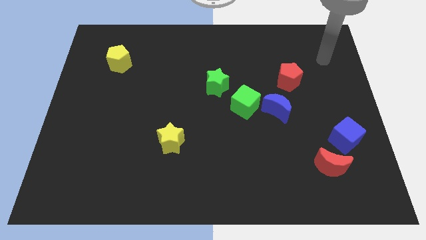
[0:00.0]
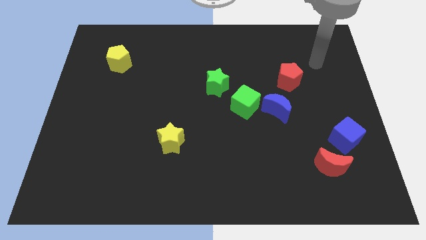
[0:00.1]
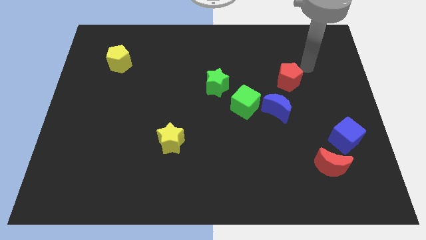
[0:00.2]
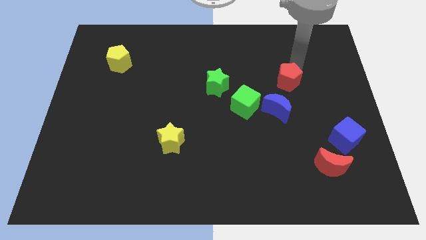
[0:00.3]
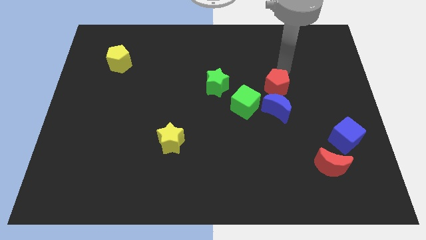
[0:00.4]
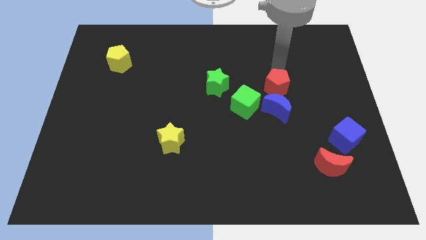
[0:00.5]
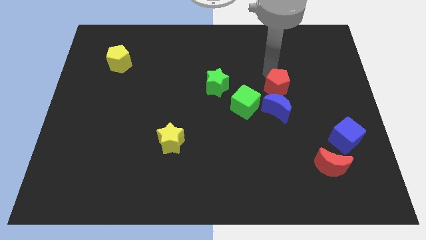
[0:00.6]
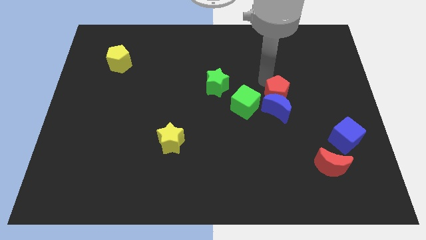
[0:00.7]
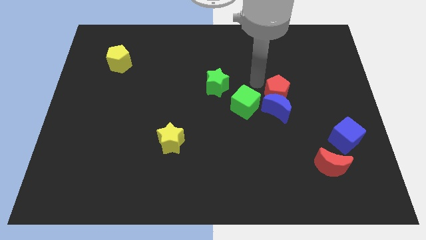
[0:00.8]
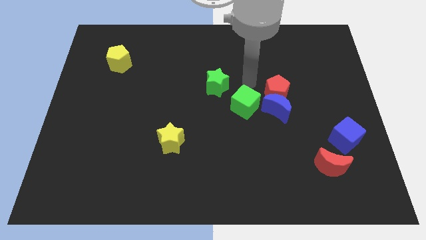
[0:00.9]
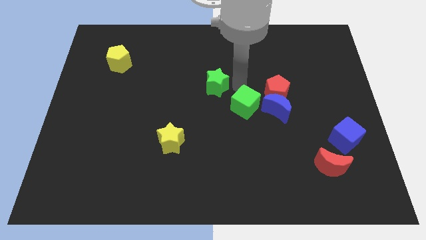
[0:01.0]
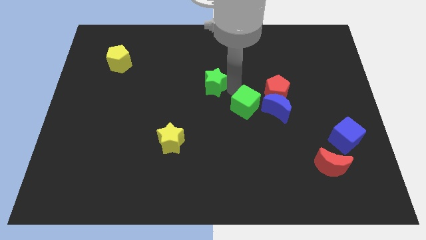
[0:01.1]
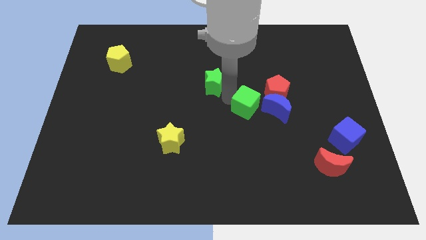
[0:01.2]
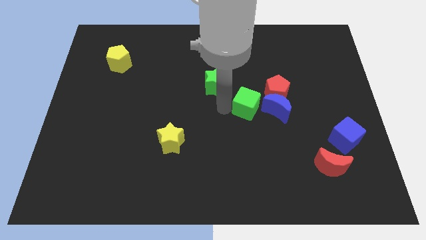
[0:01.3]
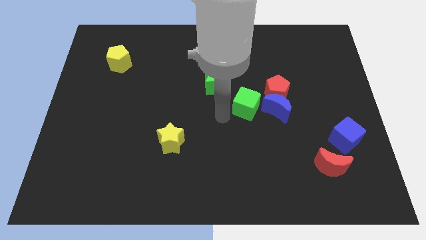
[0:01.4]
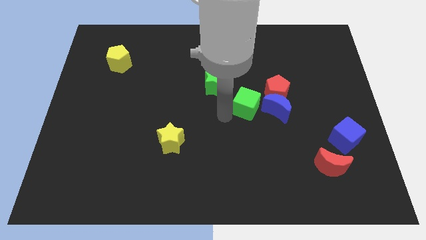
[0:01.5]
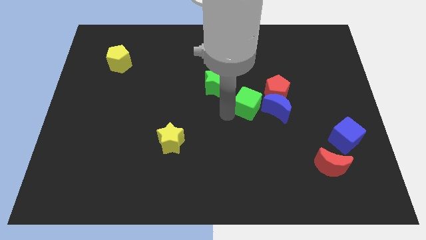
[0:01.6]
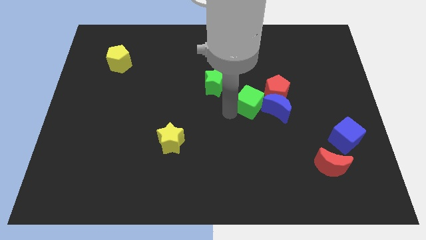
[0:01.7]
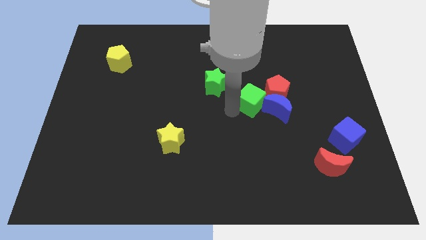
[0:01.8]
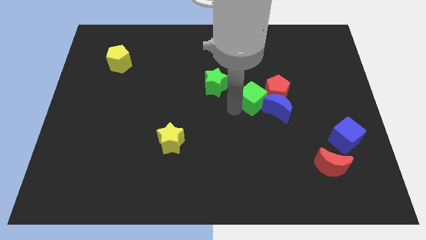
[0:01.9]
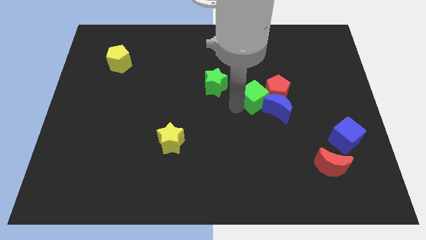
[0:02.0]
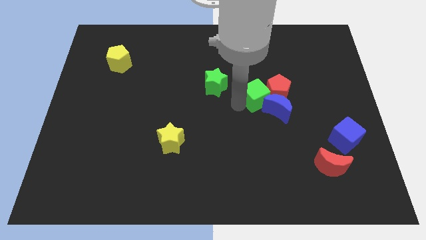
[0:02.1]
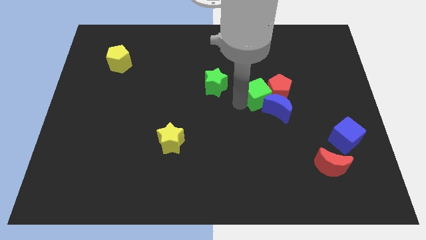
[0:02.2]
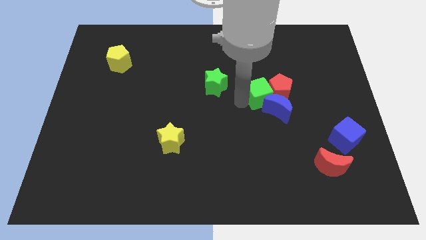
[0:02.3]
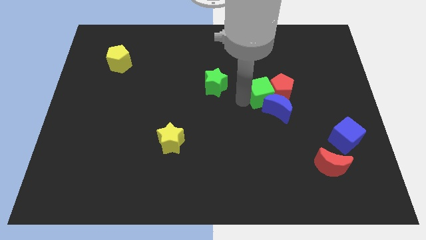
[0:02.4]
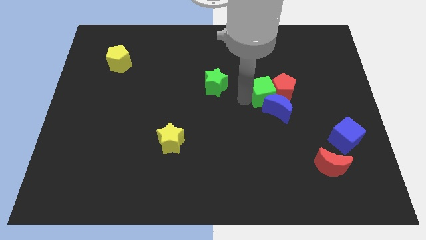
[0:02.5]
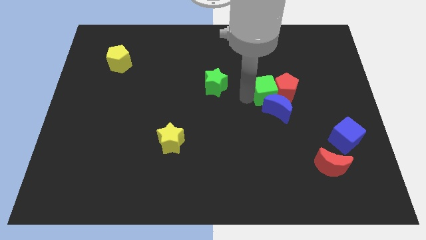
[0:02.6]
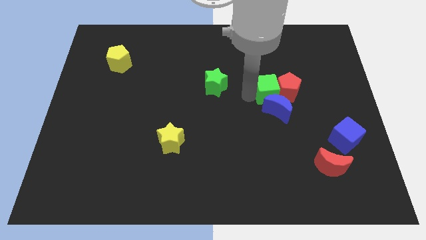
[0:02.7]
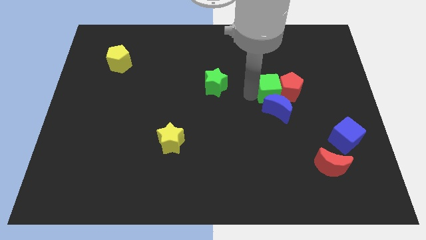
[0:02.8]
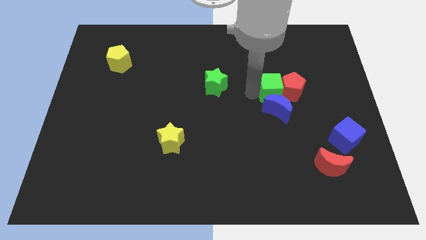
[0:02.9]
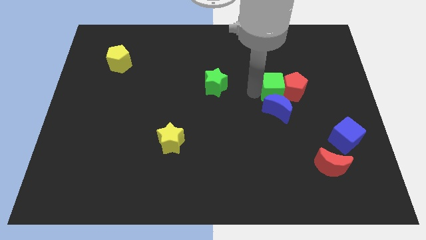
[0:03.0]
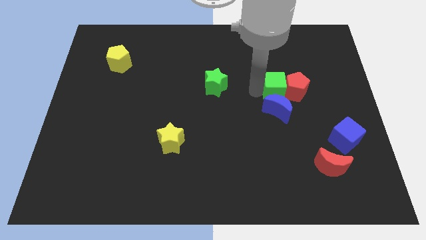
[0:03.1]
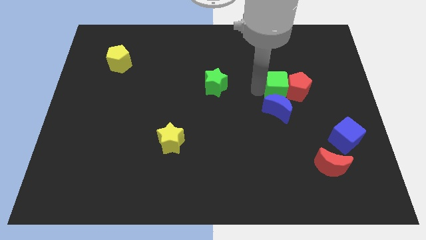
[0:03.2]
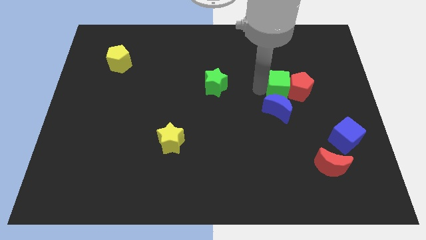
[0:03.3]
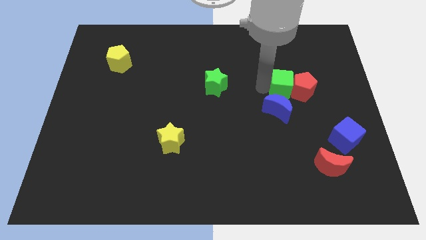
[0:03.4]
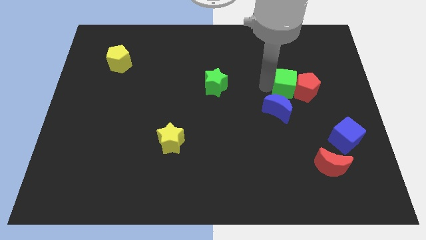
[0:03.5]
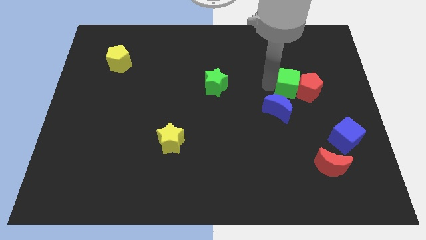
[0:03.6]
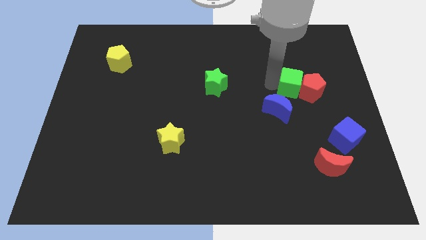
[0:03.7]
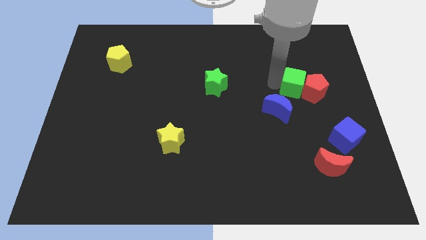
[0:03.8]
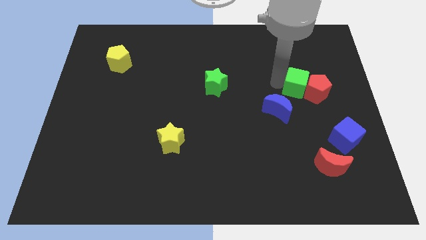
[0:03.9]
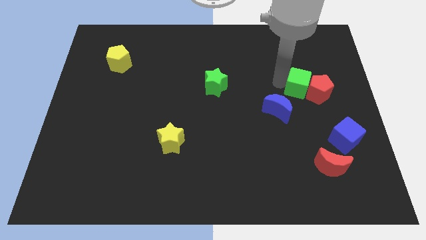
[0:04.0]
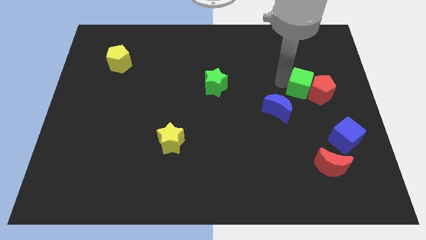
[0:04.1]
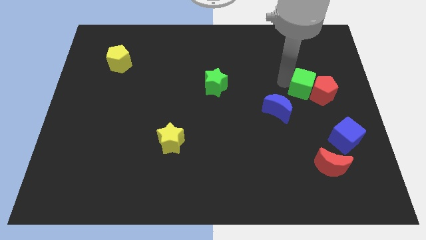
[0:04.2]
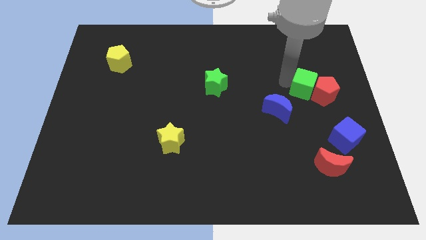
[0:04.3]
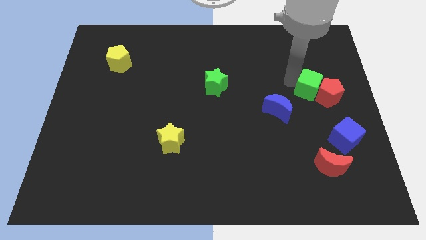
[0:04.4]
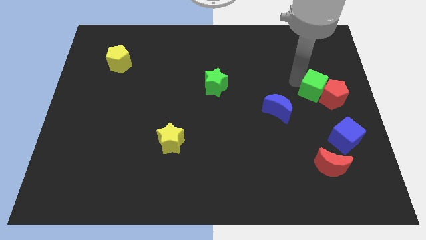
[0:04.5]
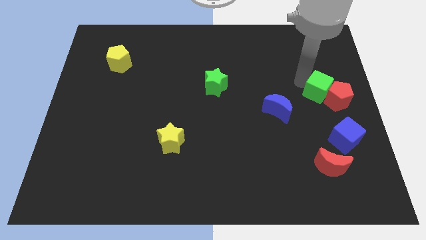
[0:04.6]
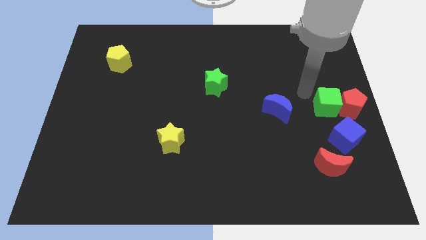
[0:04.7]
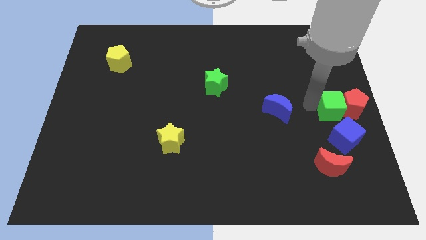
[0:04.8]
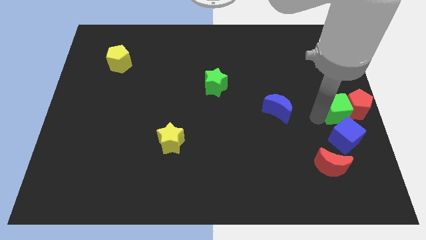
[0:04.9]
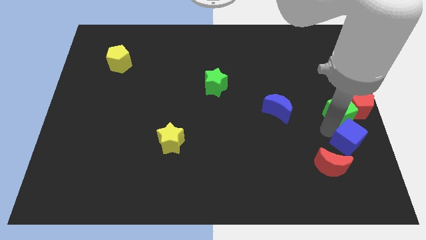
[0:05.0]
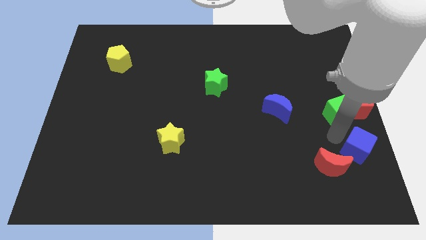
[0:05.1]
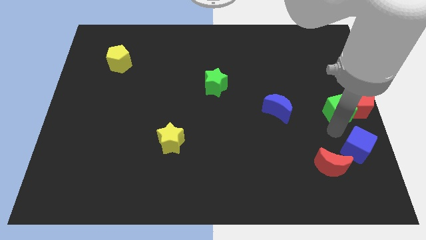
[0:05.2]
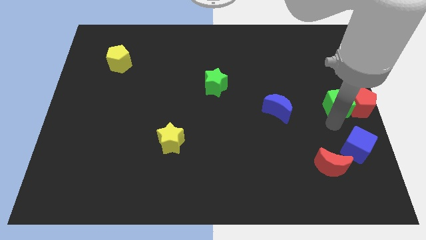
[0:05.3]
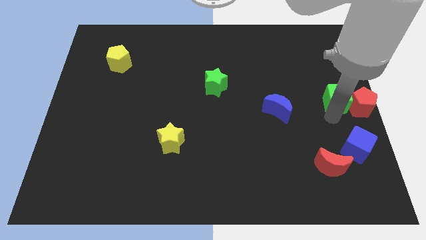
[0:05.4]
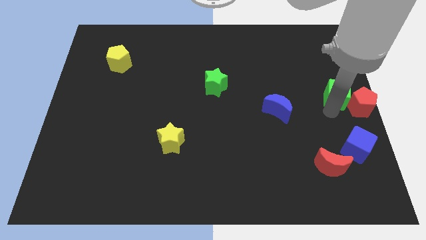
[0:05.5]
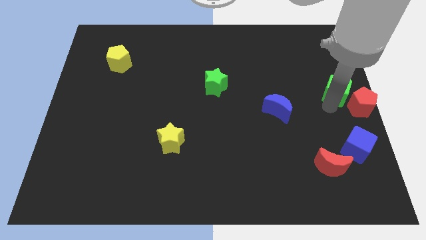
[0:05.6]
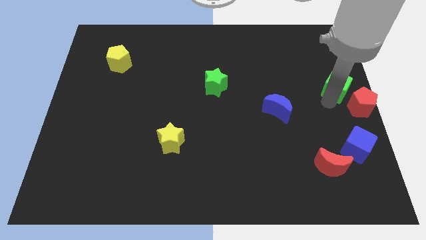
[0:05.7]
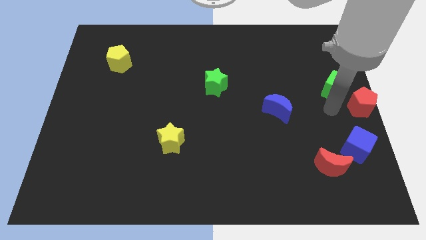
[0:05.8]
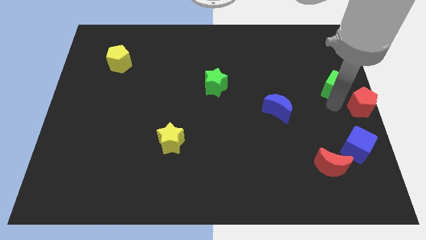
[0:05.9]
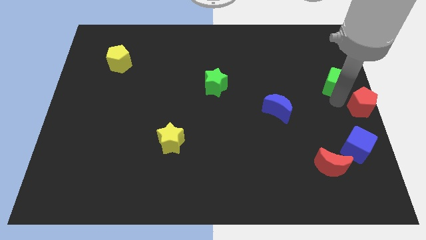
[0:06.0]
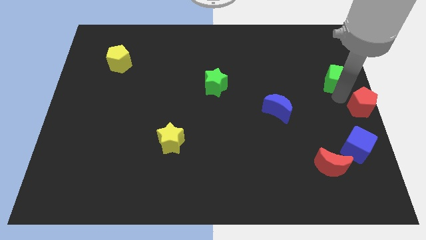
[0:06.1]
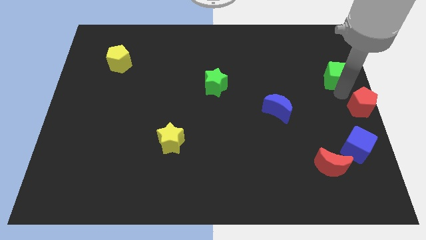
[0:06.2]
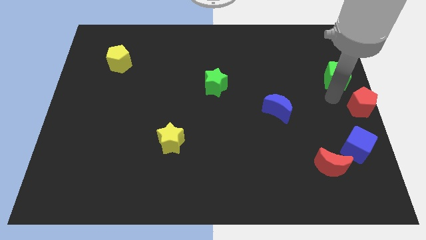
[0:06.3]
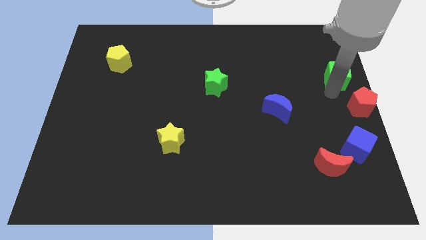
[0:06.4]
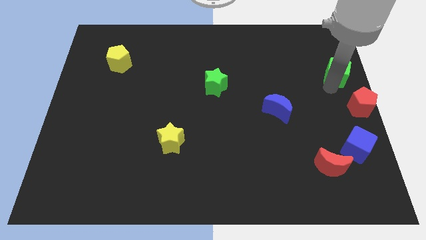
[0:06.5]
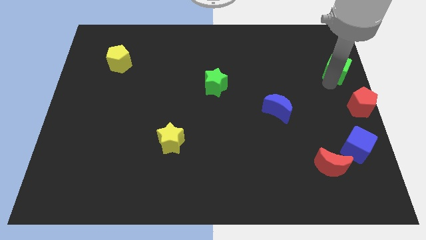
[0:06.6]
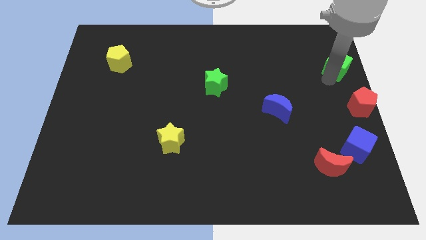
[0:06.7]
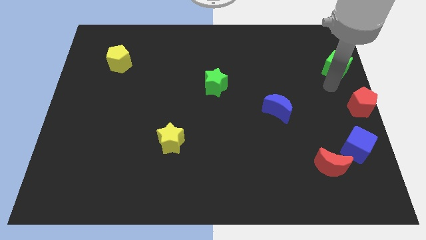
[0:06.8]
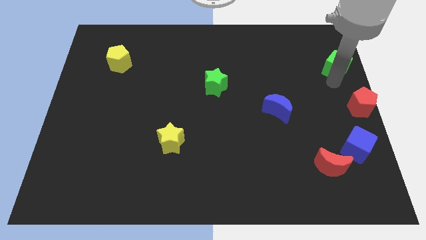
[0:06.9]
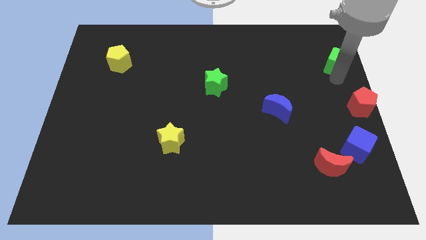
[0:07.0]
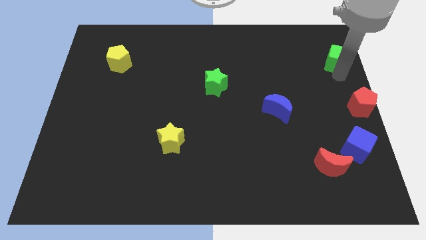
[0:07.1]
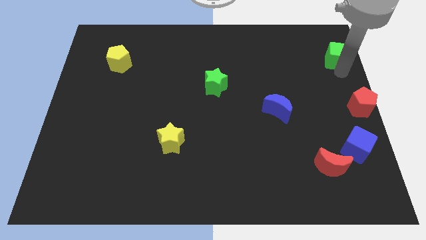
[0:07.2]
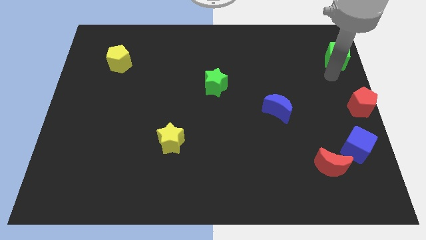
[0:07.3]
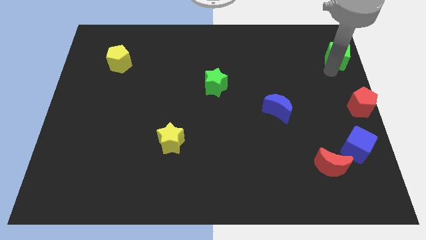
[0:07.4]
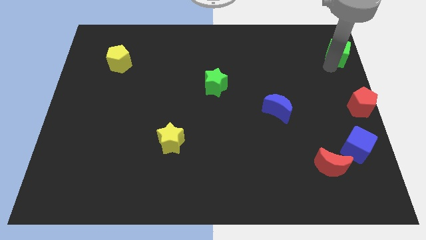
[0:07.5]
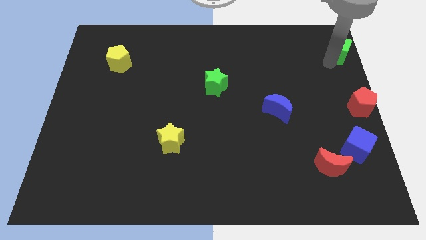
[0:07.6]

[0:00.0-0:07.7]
push the green cube to the upper right corner
